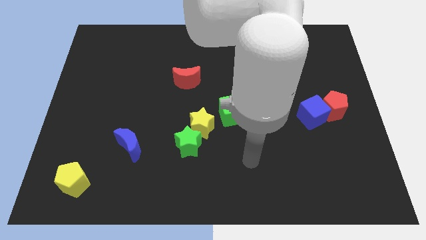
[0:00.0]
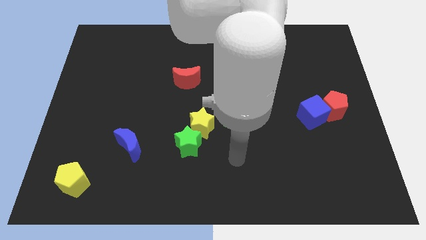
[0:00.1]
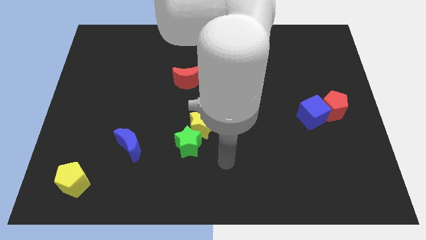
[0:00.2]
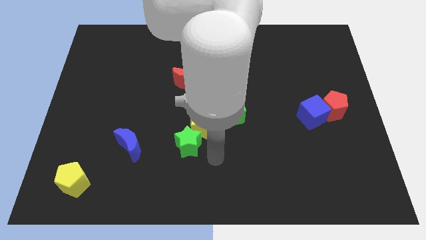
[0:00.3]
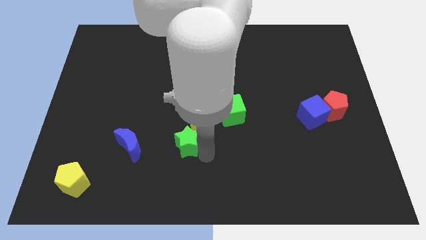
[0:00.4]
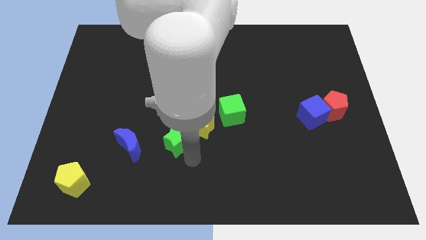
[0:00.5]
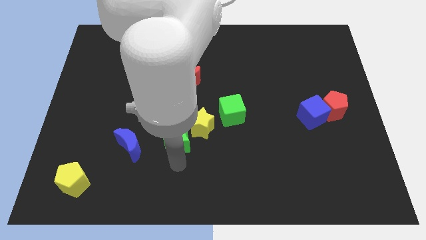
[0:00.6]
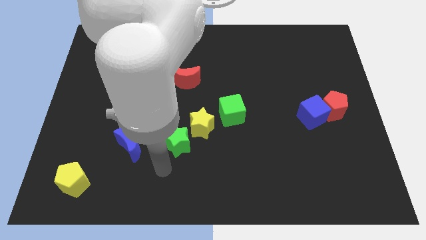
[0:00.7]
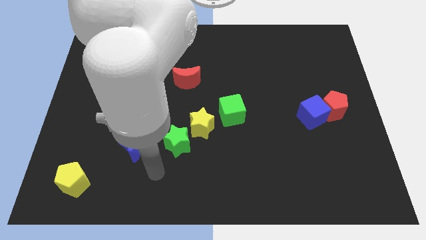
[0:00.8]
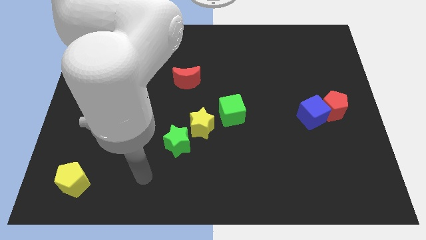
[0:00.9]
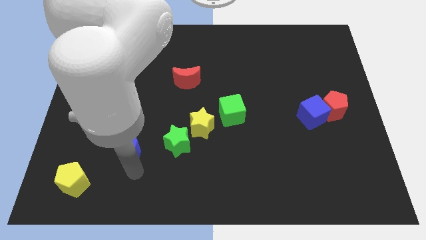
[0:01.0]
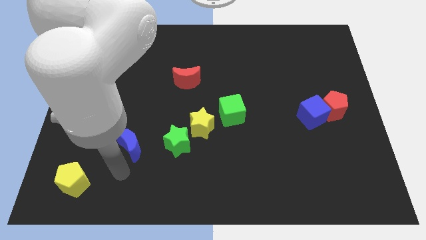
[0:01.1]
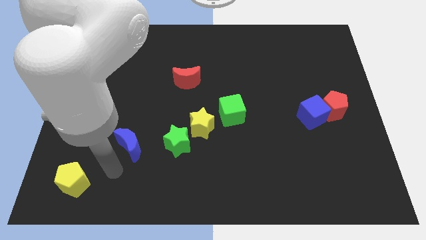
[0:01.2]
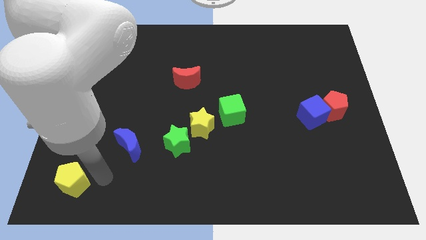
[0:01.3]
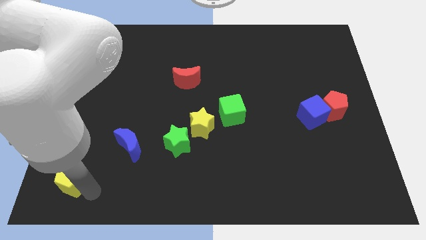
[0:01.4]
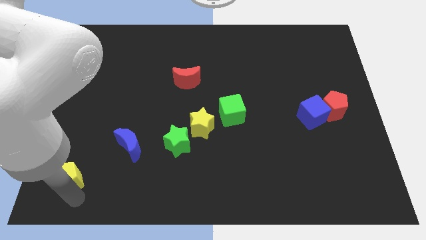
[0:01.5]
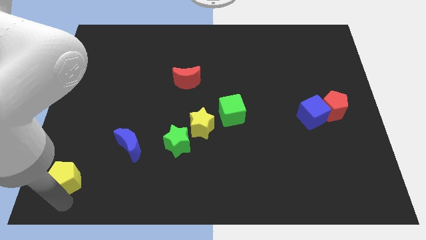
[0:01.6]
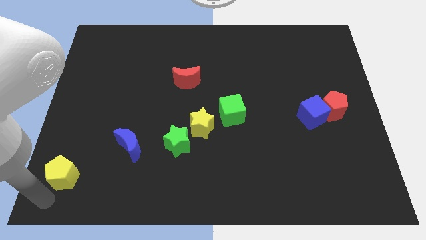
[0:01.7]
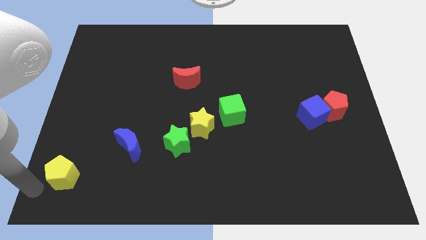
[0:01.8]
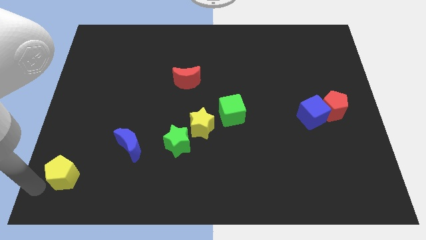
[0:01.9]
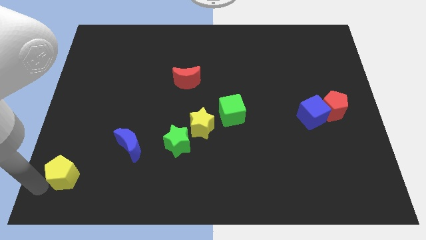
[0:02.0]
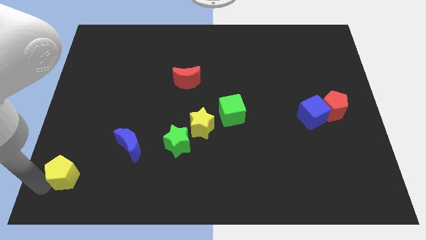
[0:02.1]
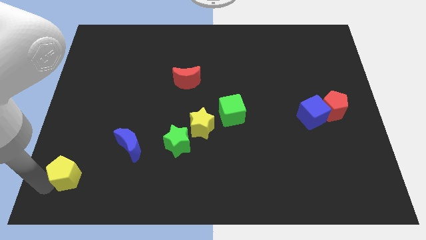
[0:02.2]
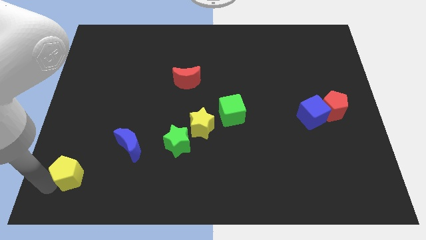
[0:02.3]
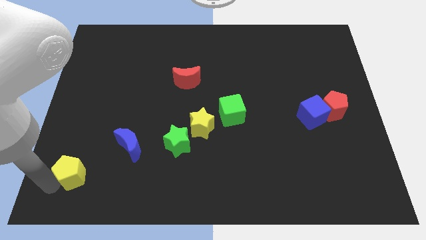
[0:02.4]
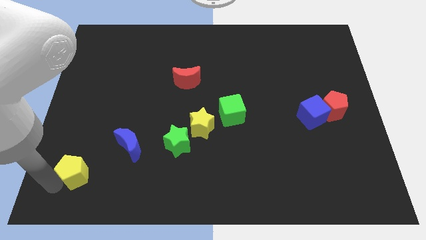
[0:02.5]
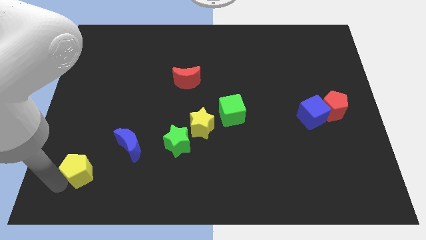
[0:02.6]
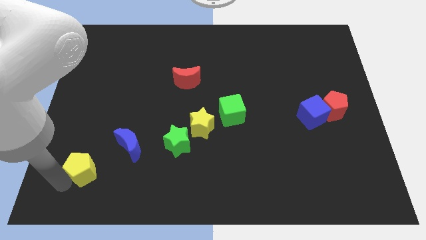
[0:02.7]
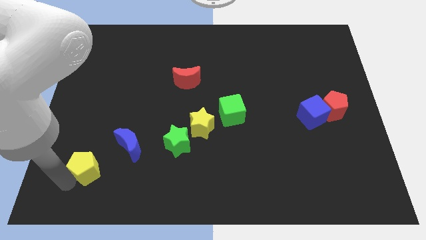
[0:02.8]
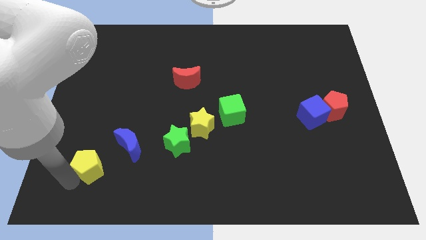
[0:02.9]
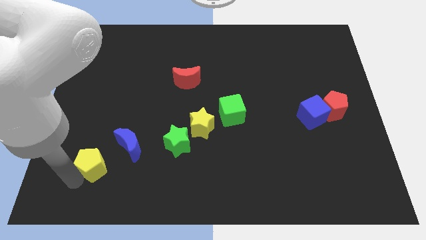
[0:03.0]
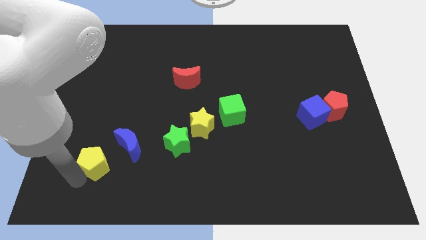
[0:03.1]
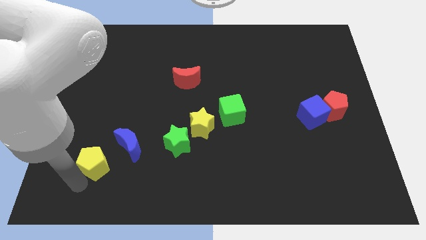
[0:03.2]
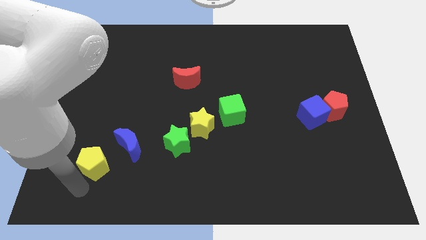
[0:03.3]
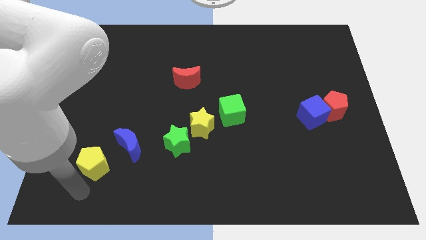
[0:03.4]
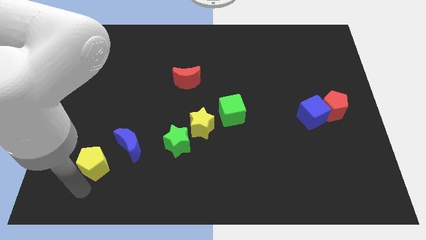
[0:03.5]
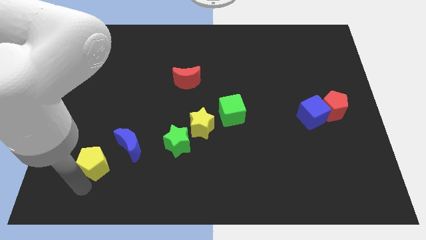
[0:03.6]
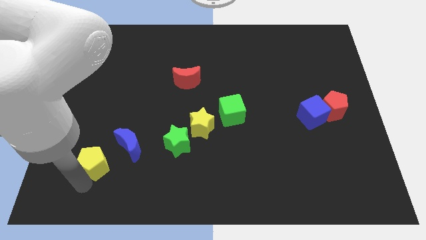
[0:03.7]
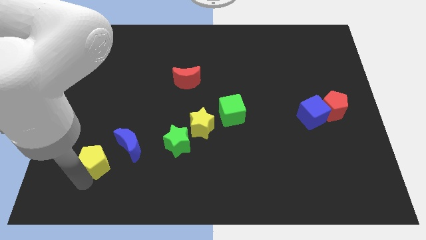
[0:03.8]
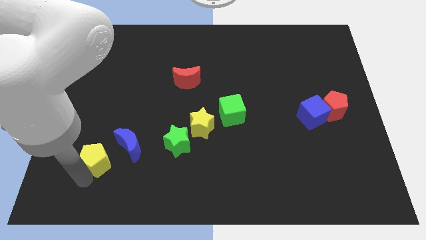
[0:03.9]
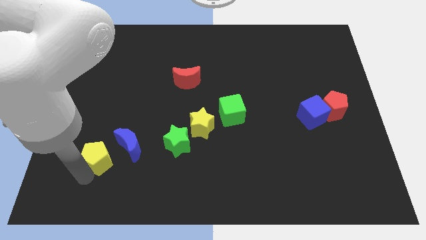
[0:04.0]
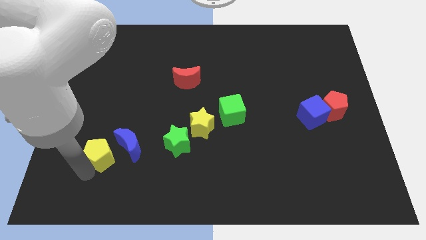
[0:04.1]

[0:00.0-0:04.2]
push the yellow pentagon slightly upwards and to the right

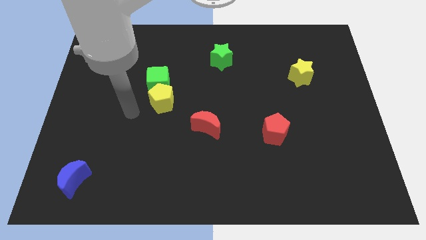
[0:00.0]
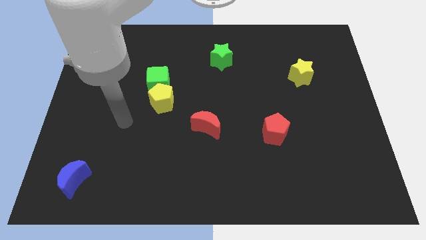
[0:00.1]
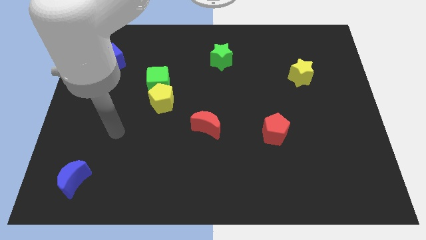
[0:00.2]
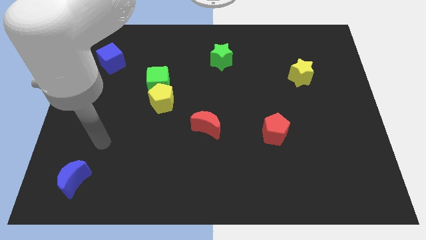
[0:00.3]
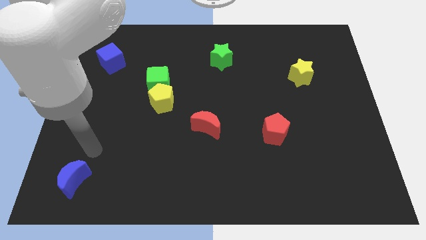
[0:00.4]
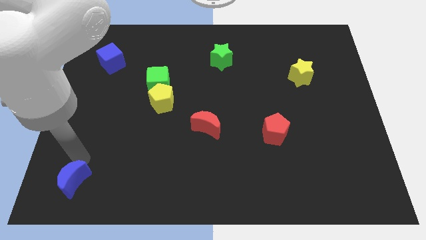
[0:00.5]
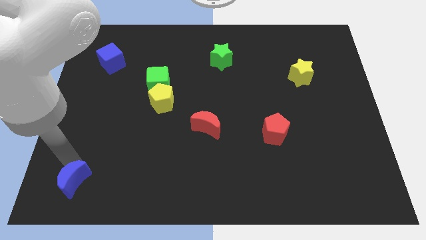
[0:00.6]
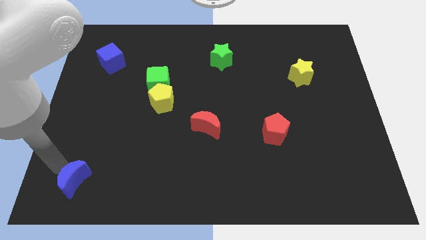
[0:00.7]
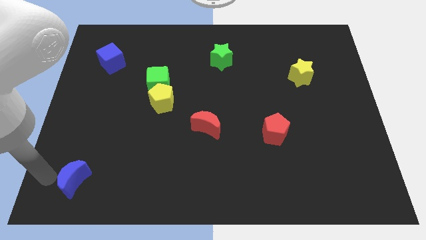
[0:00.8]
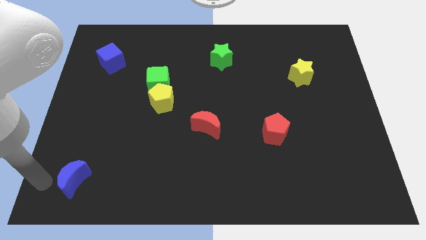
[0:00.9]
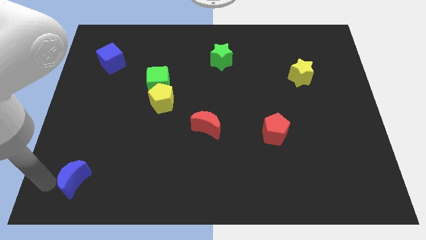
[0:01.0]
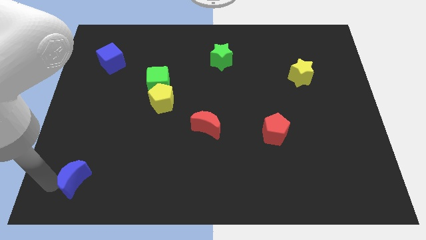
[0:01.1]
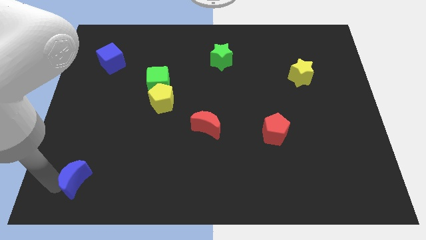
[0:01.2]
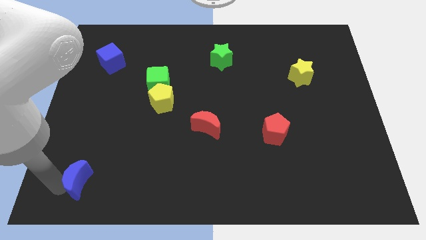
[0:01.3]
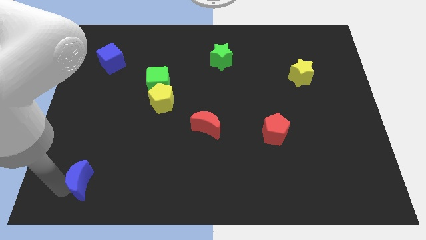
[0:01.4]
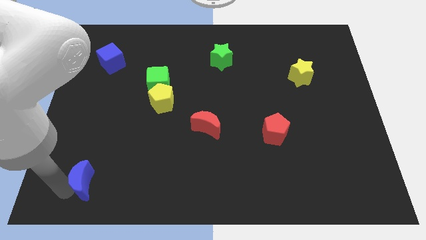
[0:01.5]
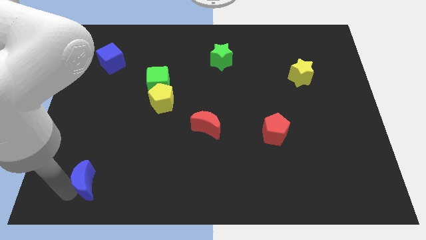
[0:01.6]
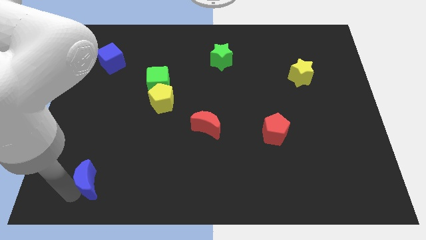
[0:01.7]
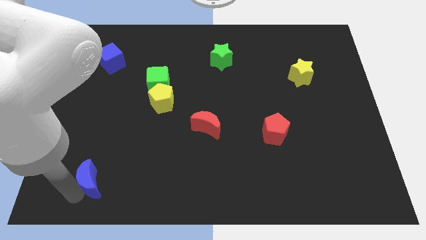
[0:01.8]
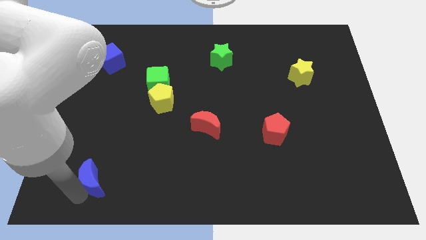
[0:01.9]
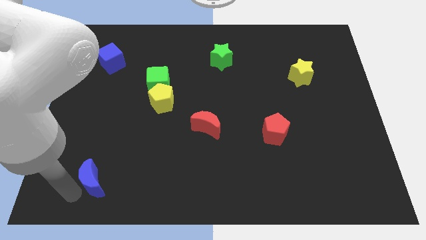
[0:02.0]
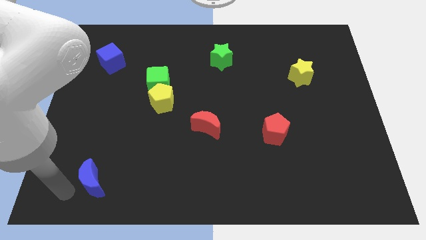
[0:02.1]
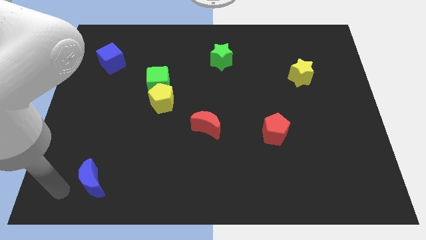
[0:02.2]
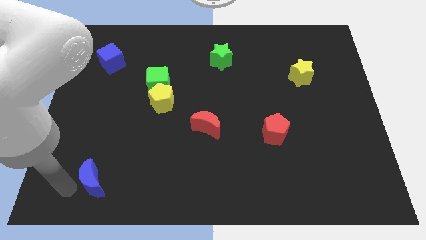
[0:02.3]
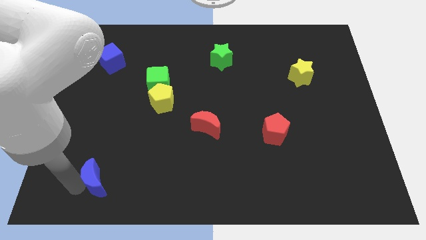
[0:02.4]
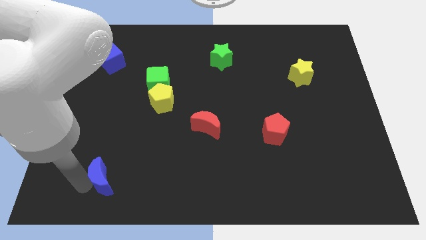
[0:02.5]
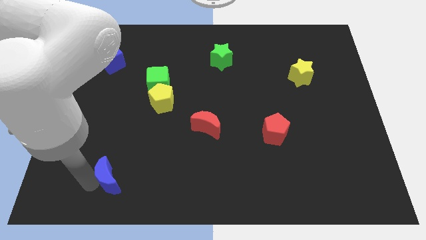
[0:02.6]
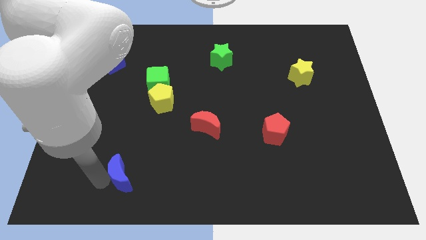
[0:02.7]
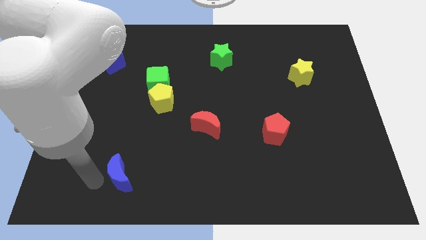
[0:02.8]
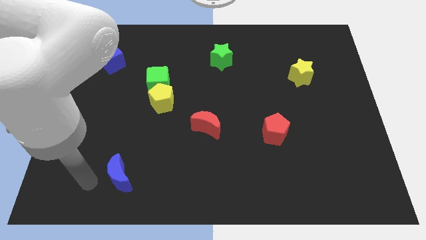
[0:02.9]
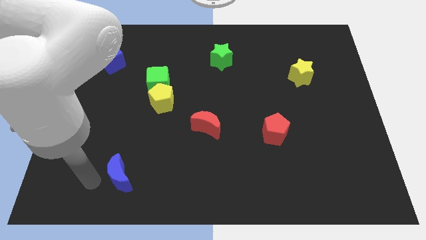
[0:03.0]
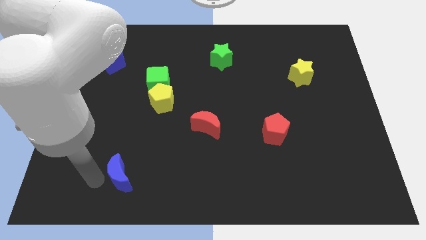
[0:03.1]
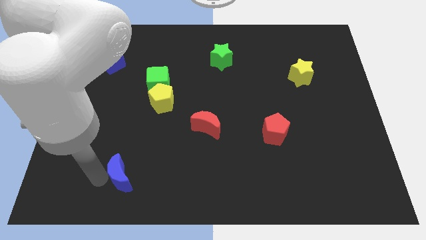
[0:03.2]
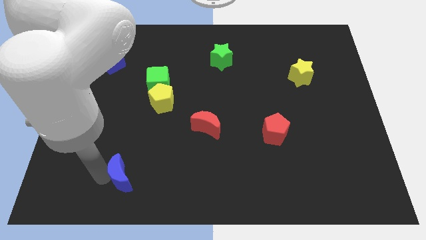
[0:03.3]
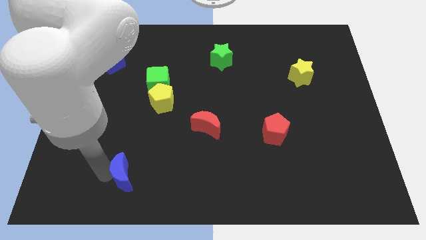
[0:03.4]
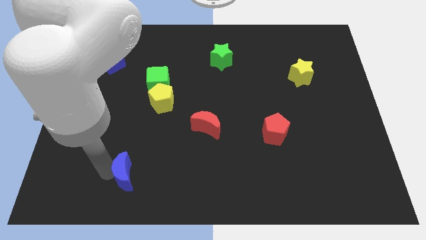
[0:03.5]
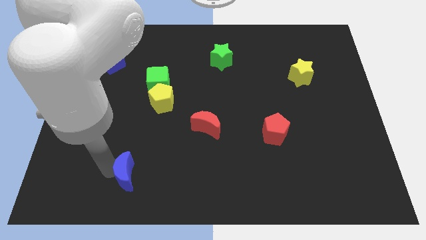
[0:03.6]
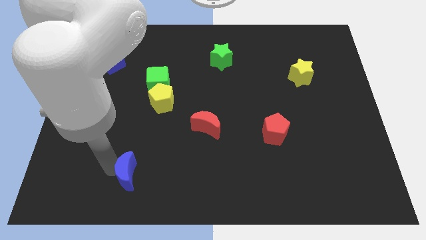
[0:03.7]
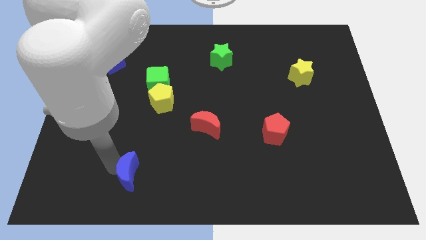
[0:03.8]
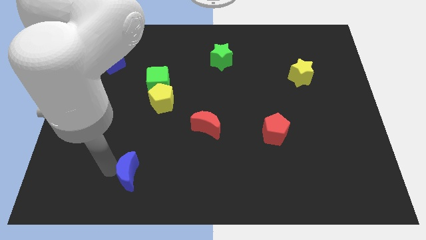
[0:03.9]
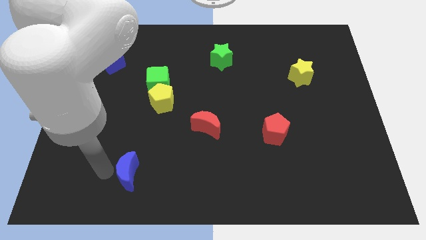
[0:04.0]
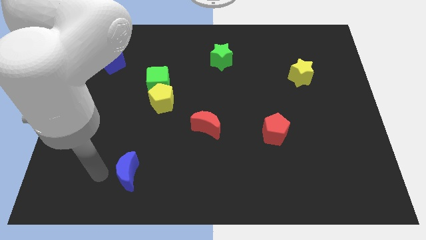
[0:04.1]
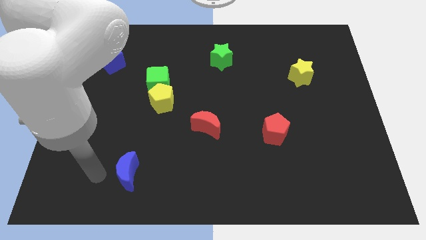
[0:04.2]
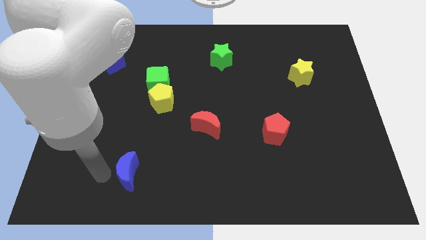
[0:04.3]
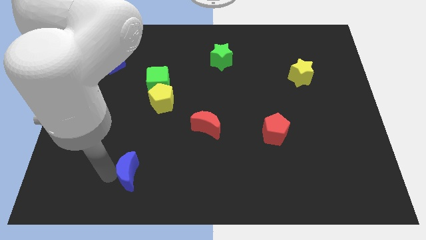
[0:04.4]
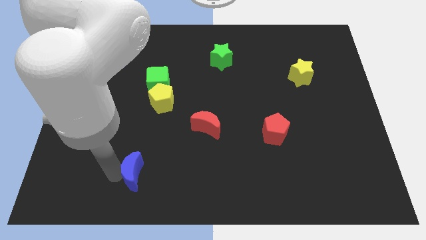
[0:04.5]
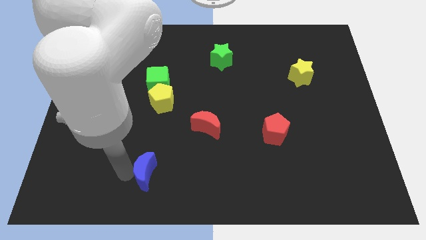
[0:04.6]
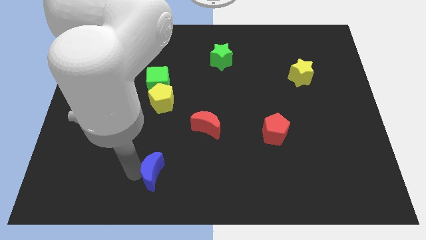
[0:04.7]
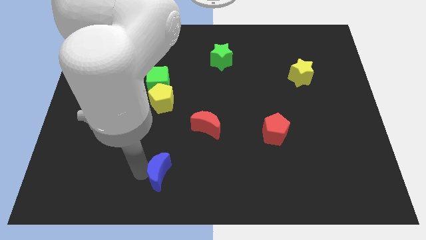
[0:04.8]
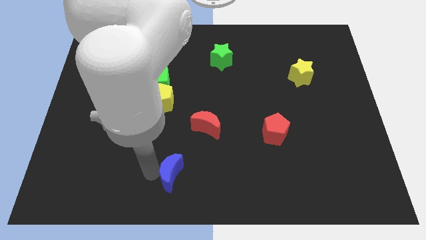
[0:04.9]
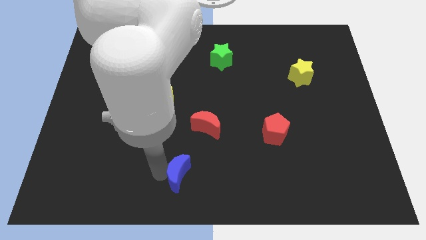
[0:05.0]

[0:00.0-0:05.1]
slide the blue moon right
